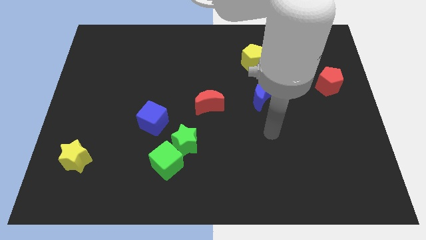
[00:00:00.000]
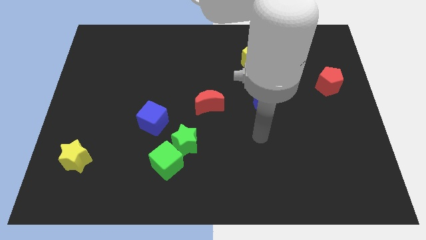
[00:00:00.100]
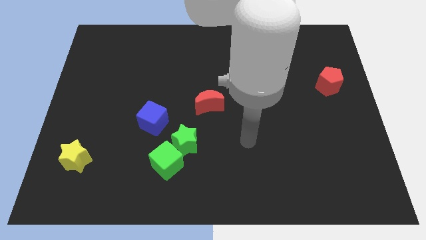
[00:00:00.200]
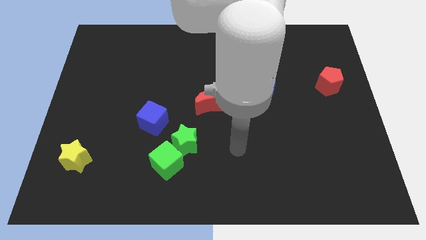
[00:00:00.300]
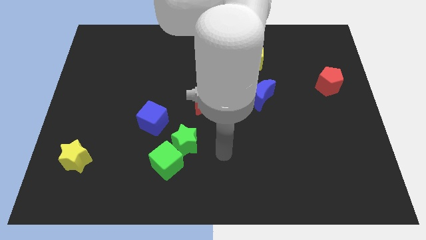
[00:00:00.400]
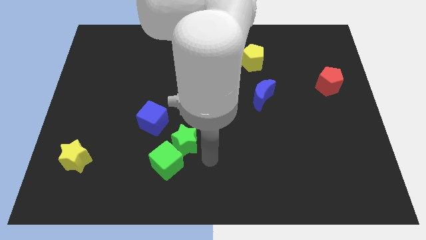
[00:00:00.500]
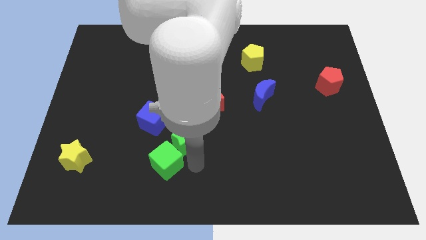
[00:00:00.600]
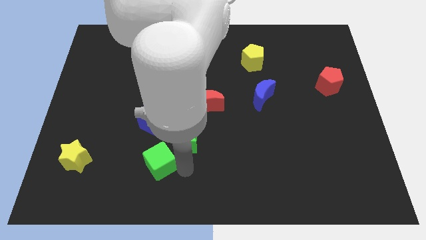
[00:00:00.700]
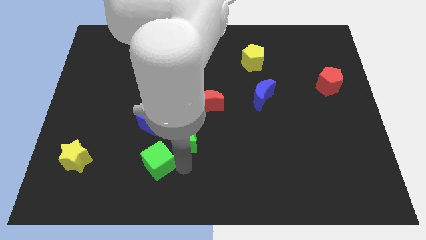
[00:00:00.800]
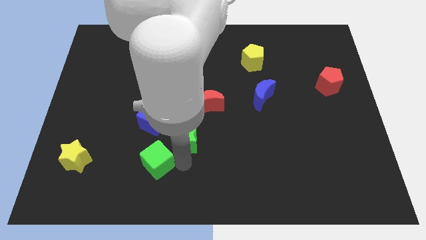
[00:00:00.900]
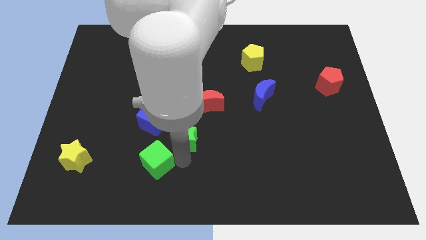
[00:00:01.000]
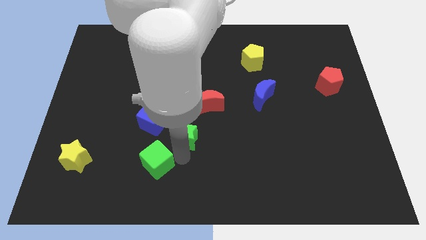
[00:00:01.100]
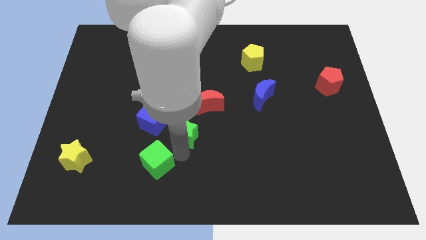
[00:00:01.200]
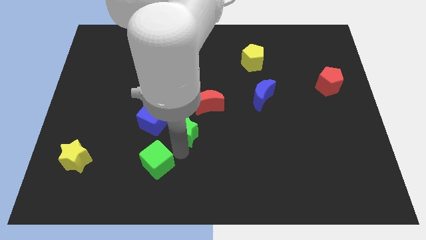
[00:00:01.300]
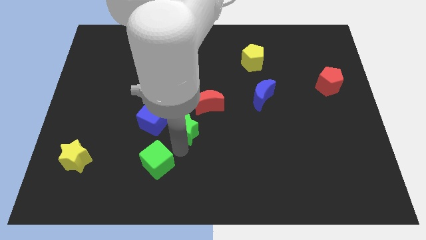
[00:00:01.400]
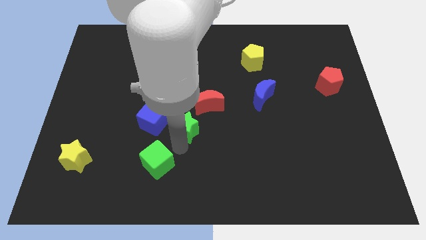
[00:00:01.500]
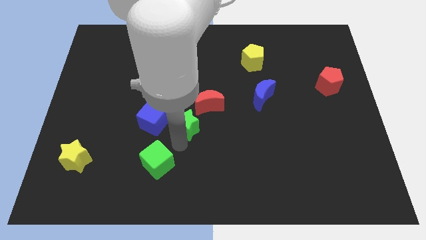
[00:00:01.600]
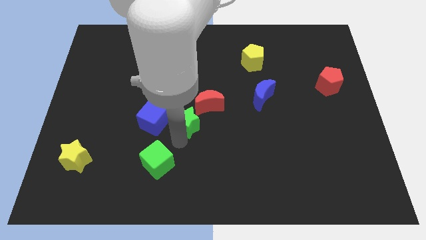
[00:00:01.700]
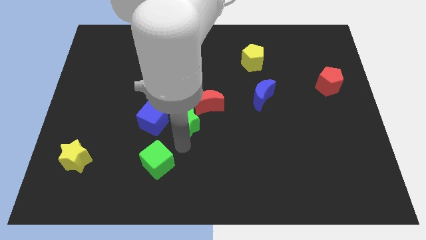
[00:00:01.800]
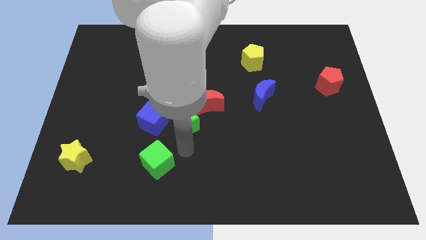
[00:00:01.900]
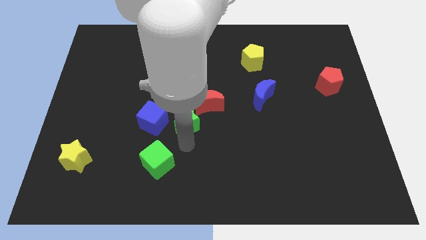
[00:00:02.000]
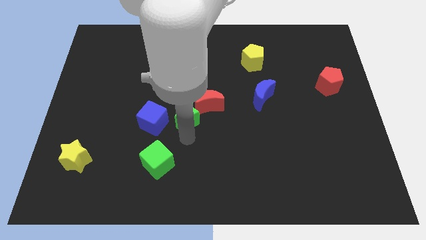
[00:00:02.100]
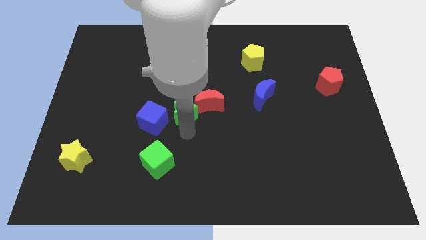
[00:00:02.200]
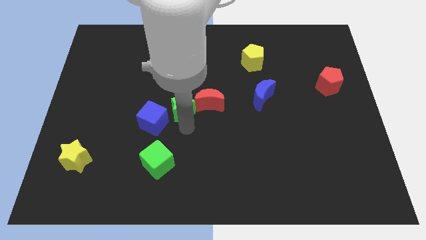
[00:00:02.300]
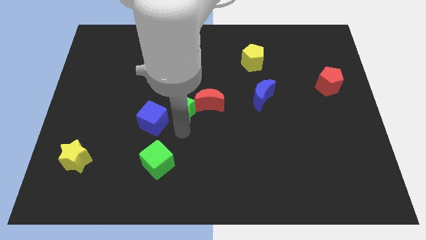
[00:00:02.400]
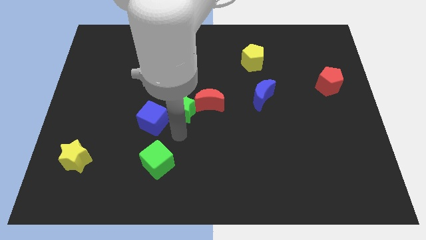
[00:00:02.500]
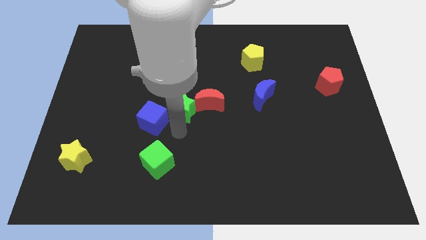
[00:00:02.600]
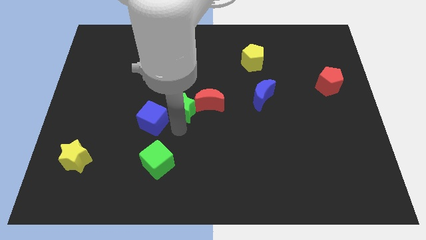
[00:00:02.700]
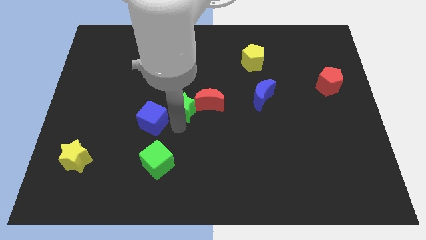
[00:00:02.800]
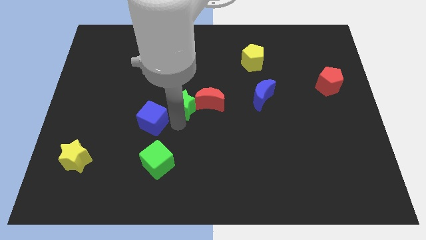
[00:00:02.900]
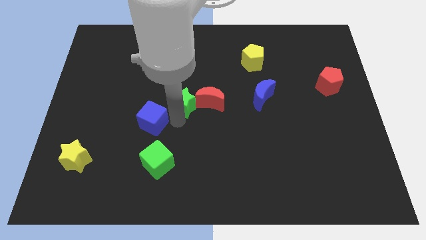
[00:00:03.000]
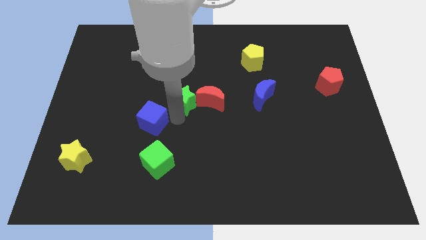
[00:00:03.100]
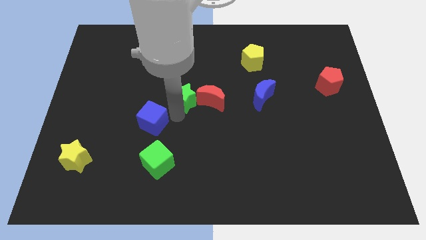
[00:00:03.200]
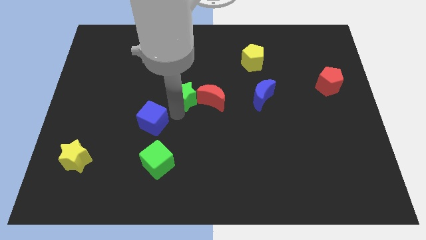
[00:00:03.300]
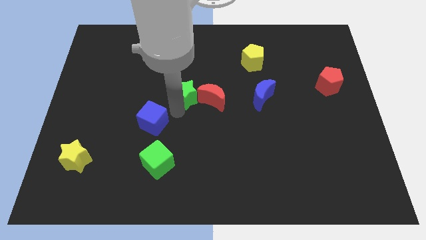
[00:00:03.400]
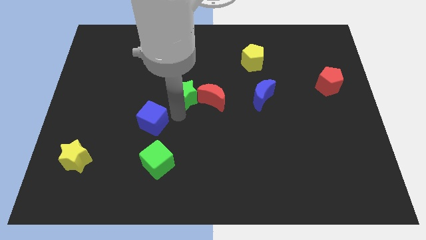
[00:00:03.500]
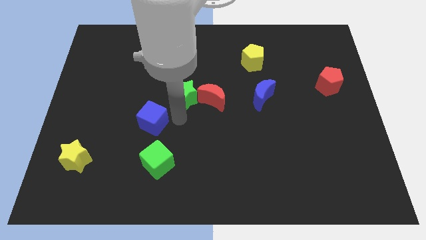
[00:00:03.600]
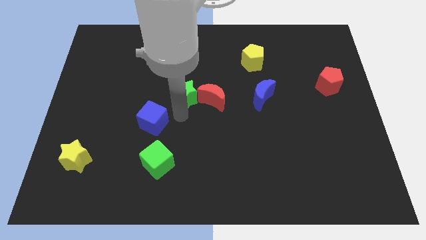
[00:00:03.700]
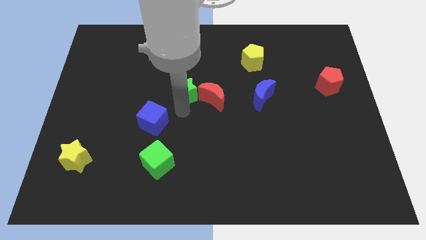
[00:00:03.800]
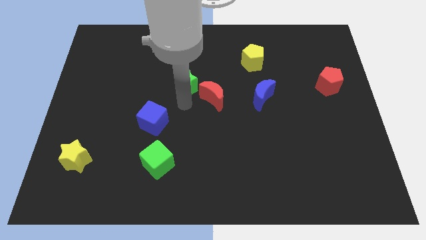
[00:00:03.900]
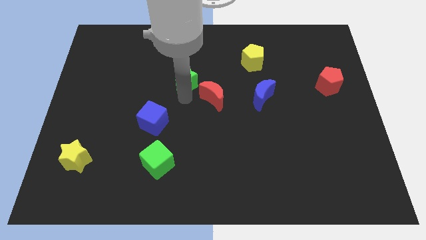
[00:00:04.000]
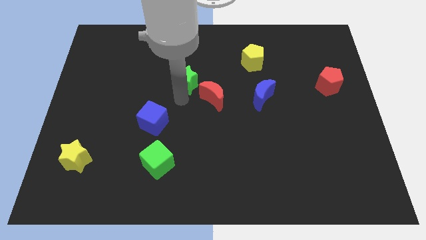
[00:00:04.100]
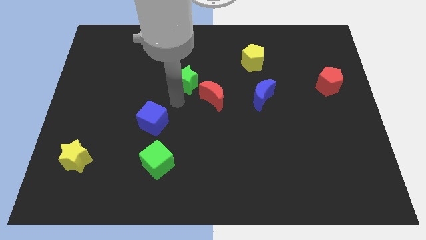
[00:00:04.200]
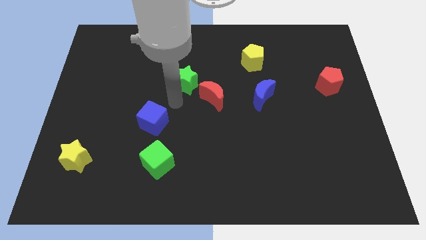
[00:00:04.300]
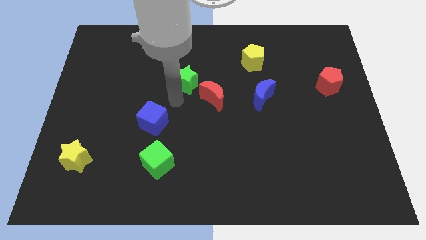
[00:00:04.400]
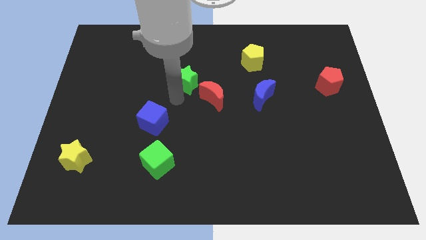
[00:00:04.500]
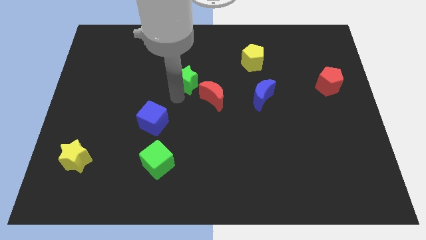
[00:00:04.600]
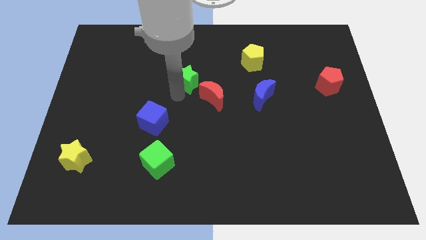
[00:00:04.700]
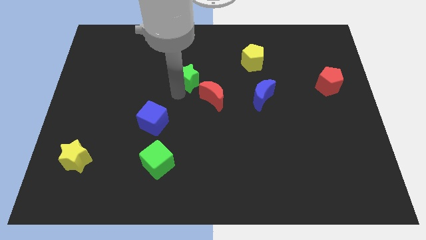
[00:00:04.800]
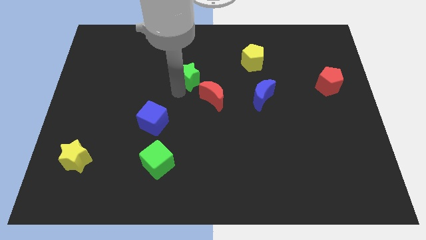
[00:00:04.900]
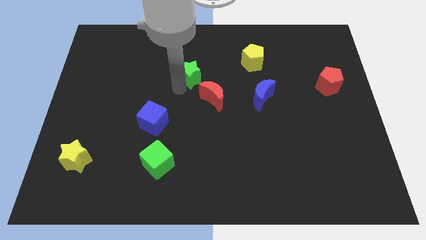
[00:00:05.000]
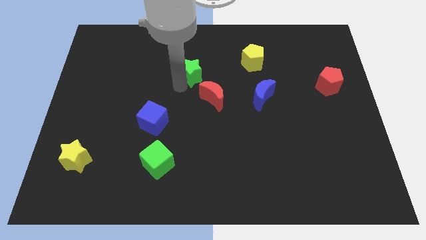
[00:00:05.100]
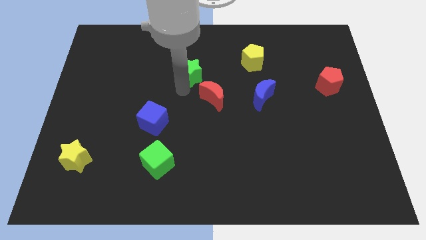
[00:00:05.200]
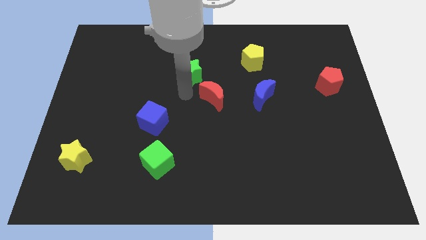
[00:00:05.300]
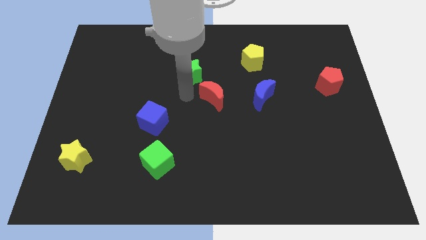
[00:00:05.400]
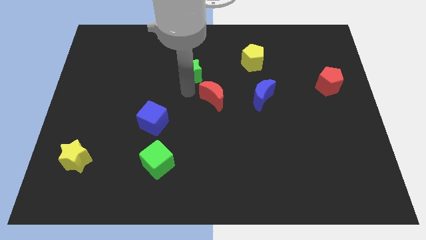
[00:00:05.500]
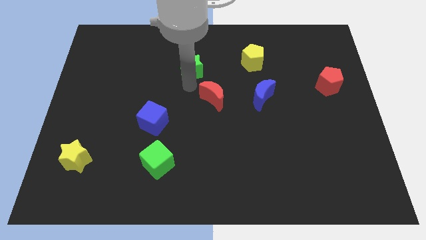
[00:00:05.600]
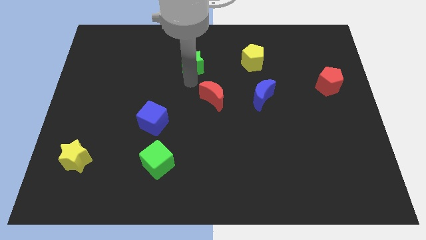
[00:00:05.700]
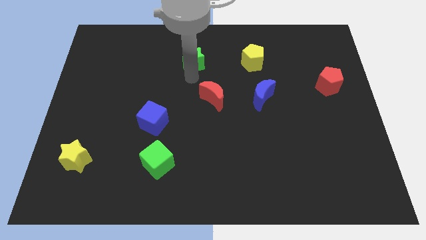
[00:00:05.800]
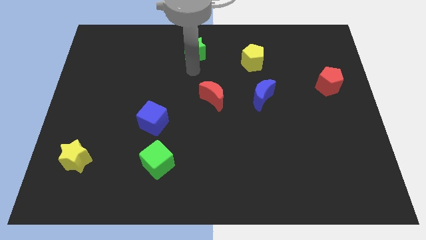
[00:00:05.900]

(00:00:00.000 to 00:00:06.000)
put the green star to the top
